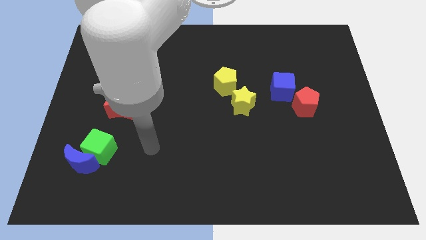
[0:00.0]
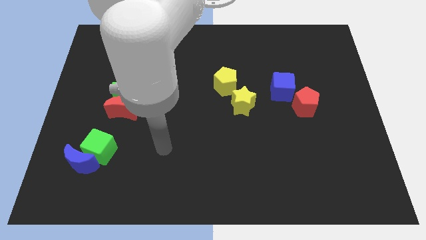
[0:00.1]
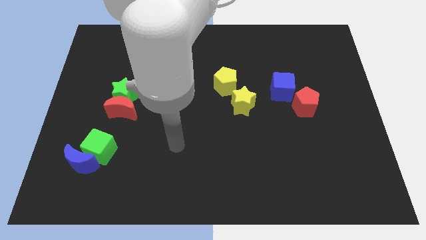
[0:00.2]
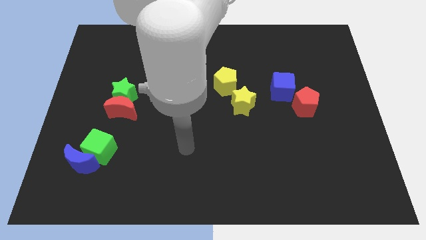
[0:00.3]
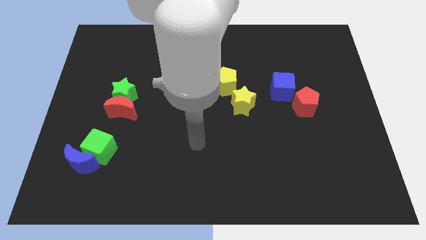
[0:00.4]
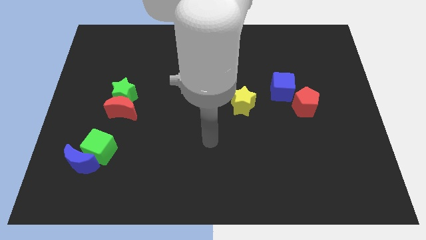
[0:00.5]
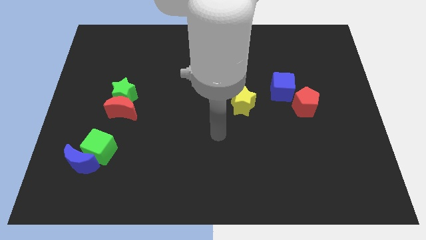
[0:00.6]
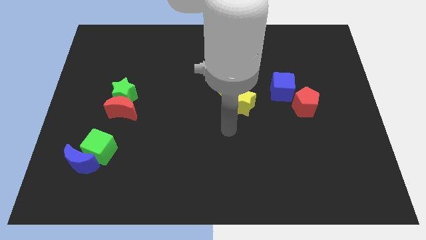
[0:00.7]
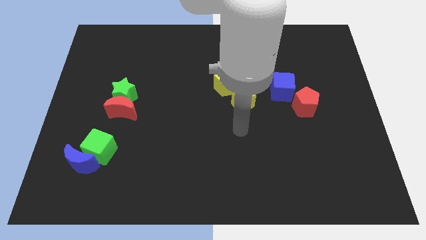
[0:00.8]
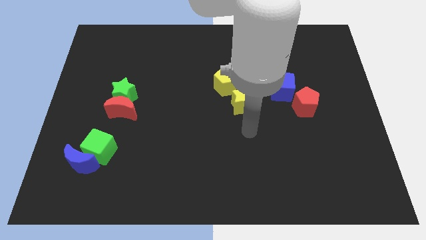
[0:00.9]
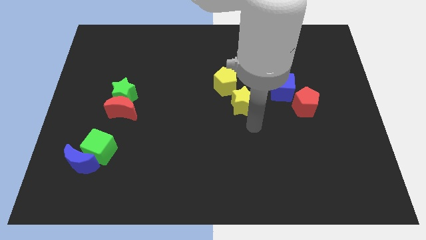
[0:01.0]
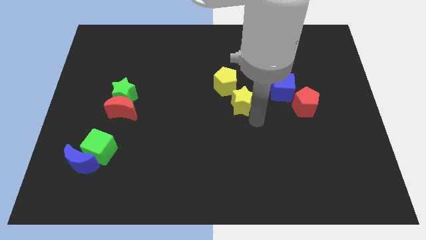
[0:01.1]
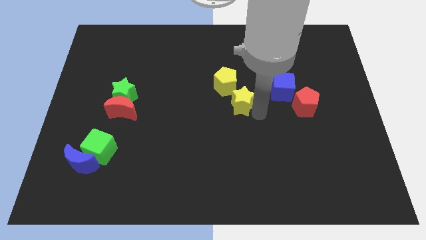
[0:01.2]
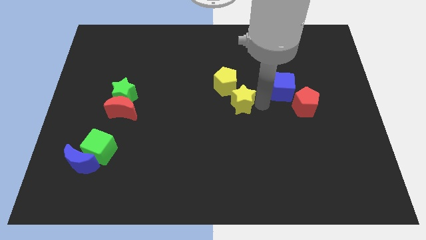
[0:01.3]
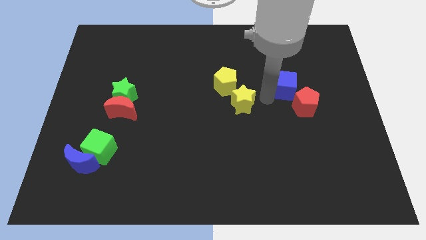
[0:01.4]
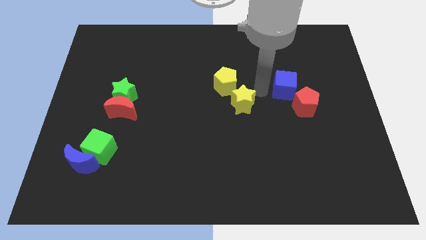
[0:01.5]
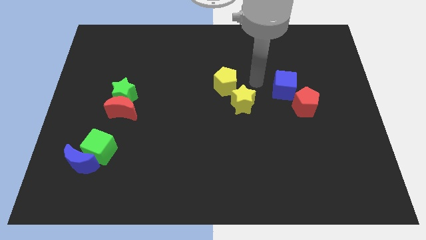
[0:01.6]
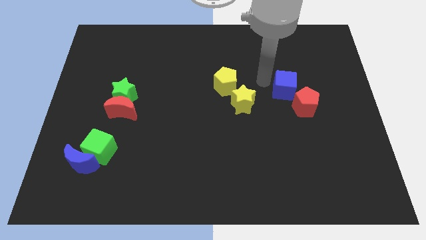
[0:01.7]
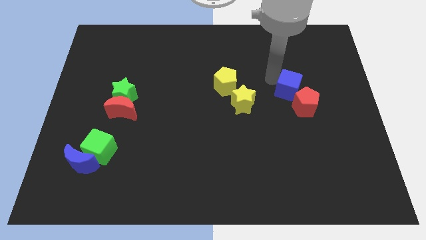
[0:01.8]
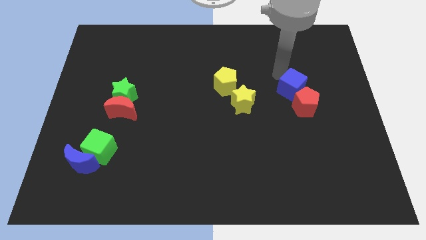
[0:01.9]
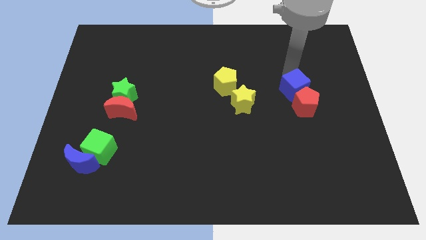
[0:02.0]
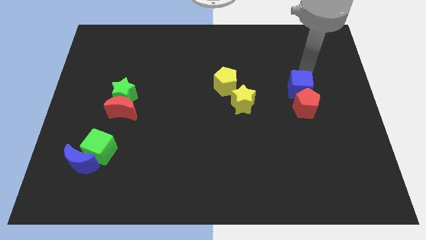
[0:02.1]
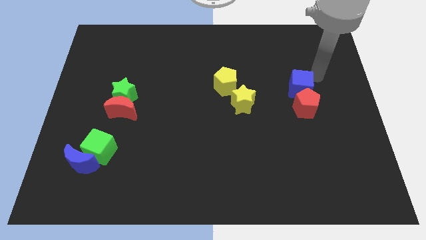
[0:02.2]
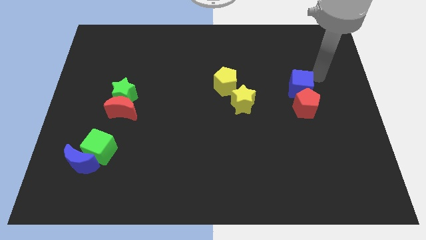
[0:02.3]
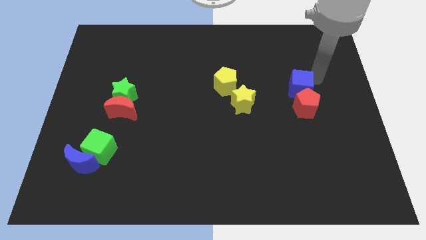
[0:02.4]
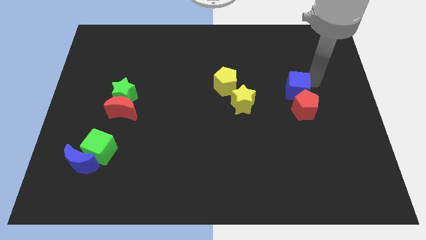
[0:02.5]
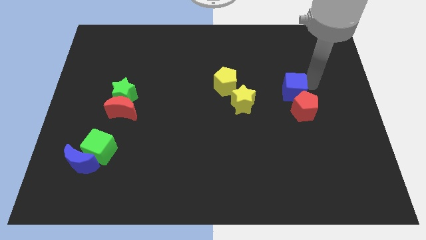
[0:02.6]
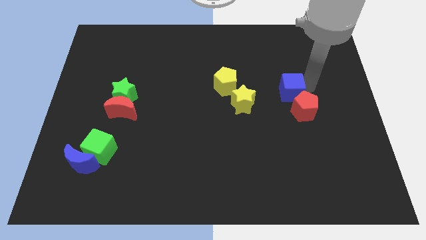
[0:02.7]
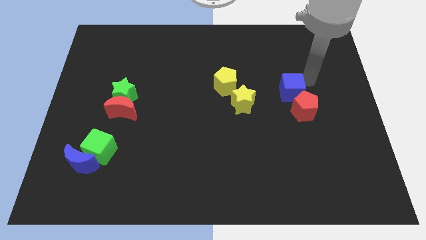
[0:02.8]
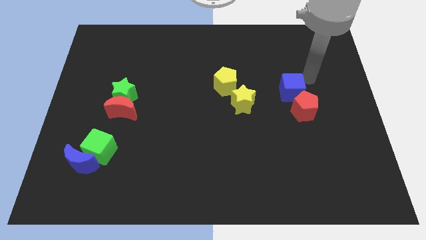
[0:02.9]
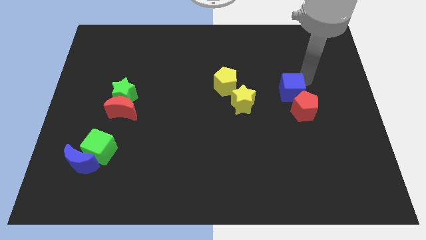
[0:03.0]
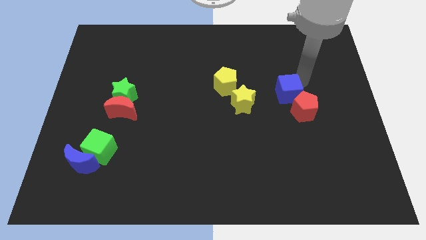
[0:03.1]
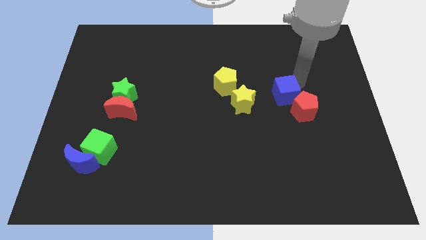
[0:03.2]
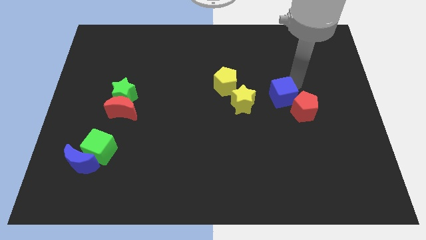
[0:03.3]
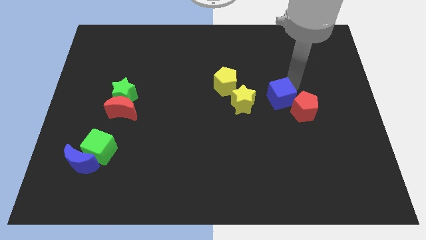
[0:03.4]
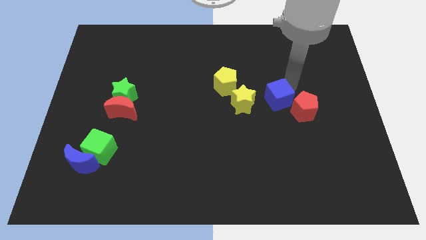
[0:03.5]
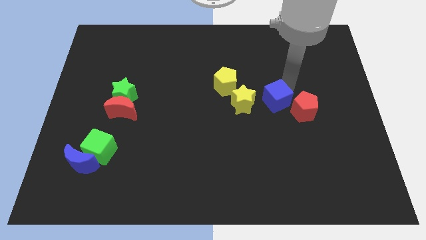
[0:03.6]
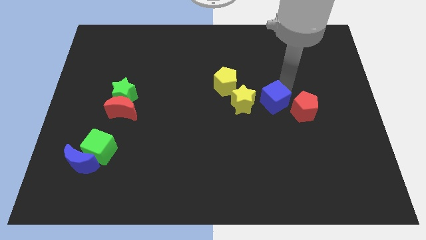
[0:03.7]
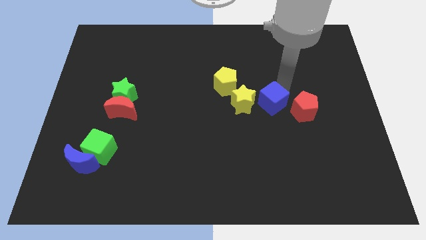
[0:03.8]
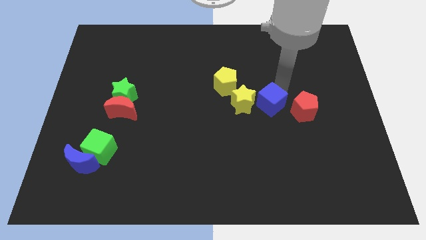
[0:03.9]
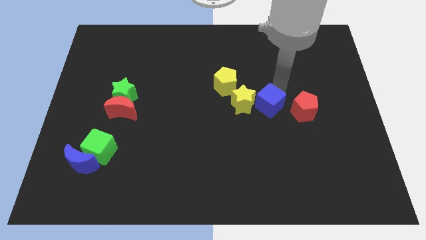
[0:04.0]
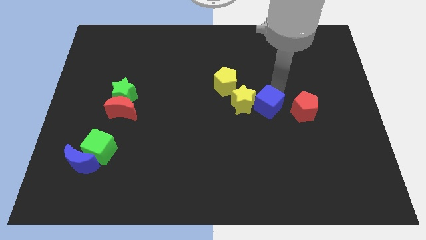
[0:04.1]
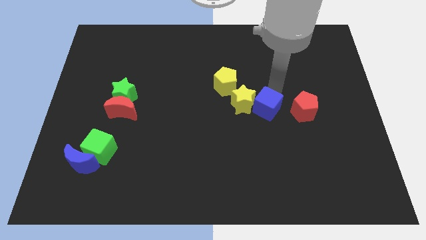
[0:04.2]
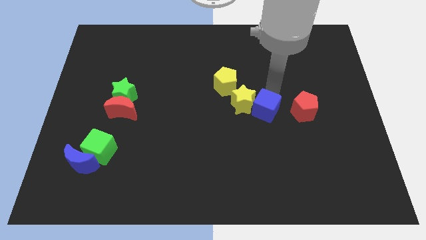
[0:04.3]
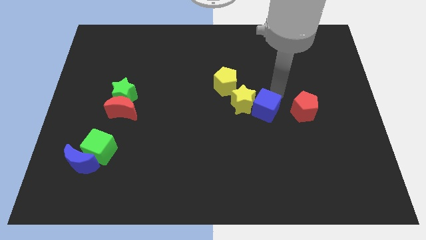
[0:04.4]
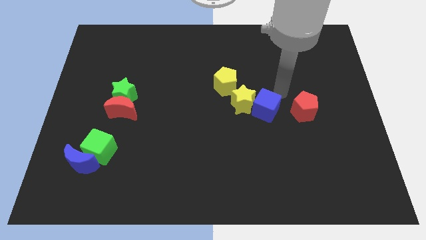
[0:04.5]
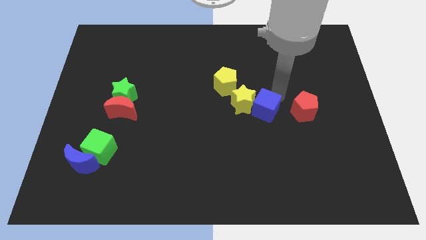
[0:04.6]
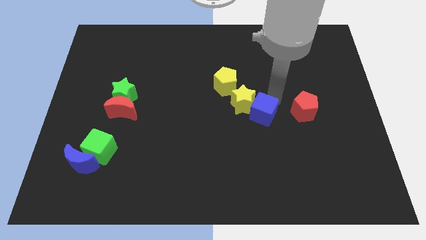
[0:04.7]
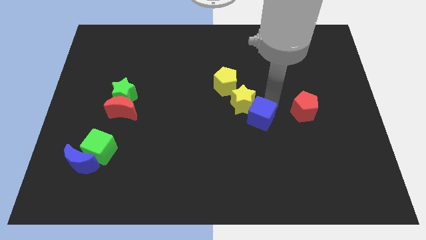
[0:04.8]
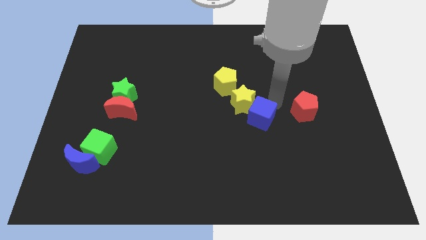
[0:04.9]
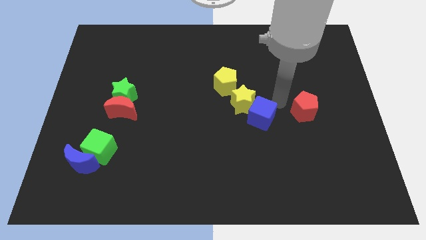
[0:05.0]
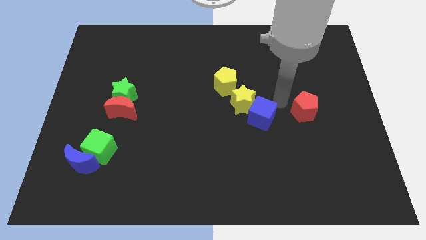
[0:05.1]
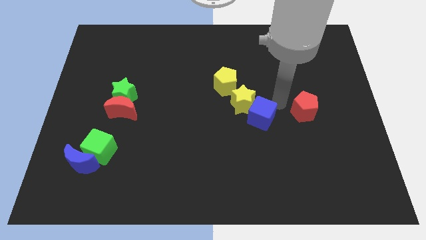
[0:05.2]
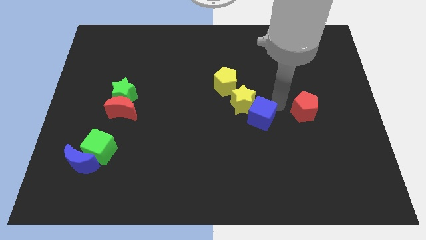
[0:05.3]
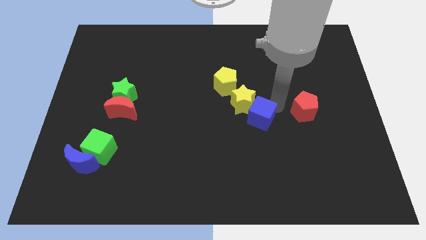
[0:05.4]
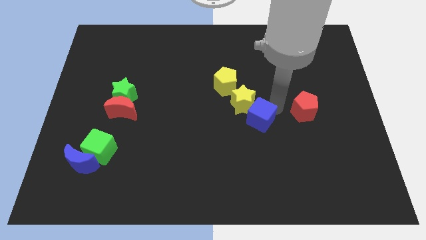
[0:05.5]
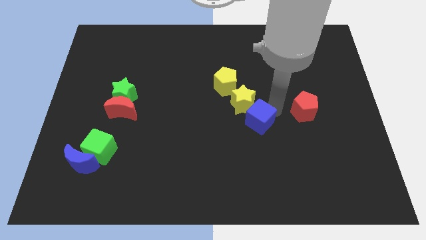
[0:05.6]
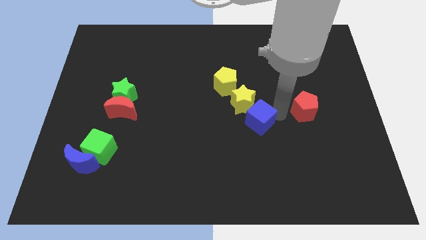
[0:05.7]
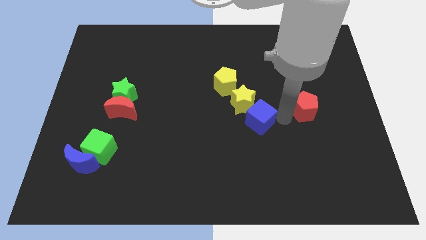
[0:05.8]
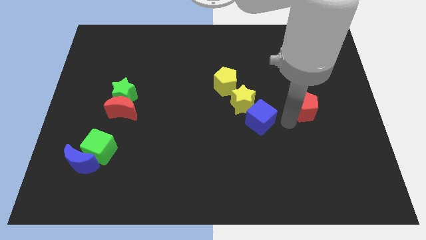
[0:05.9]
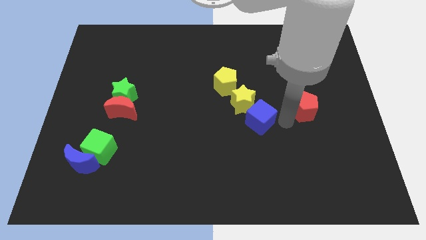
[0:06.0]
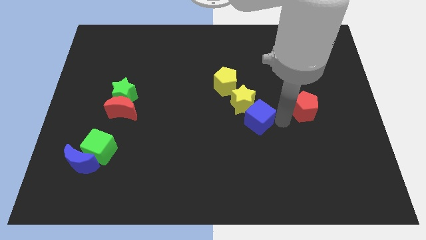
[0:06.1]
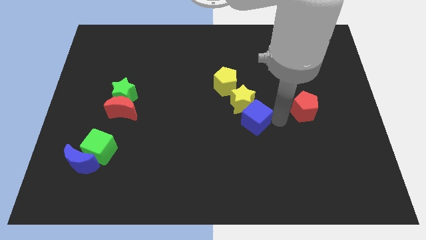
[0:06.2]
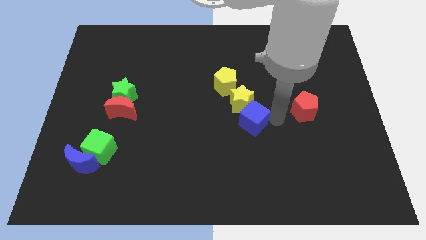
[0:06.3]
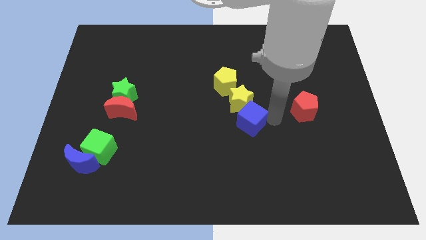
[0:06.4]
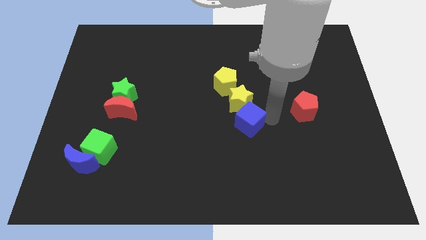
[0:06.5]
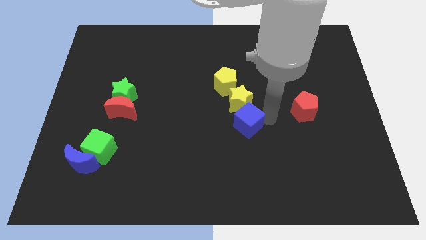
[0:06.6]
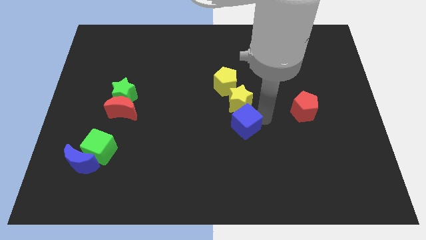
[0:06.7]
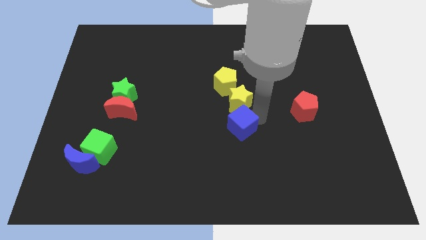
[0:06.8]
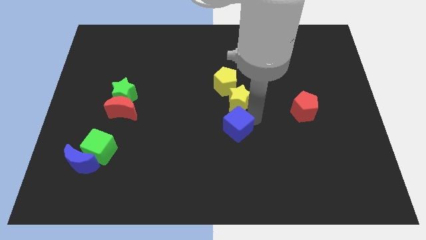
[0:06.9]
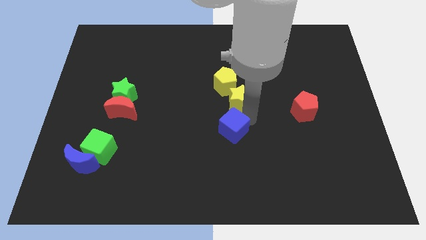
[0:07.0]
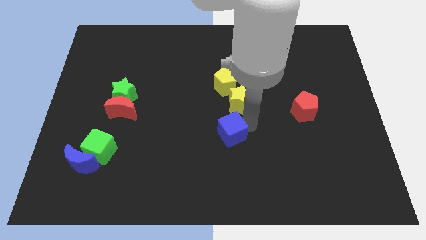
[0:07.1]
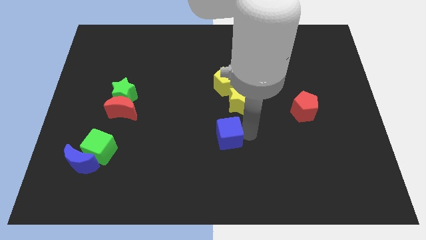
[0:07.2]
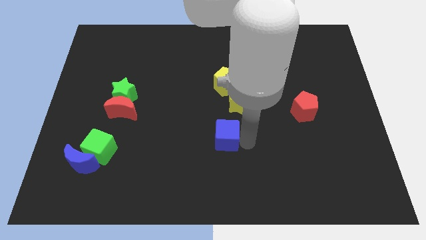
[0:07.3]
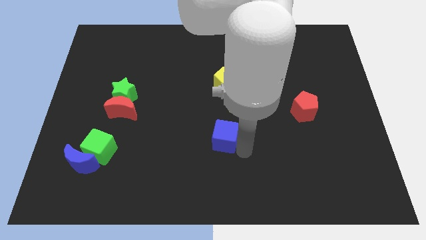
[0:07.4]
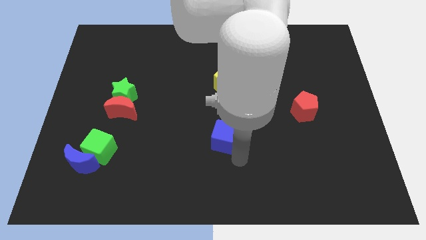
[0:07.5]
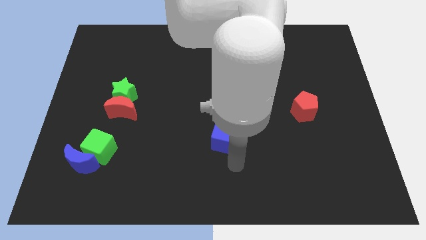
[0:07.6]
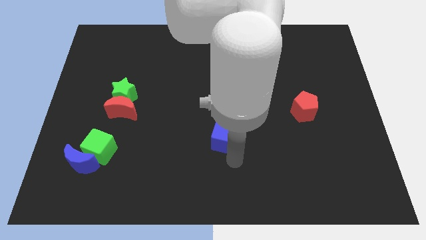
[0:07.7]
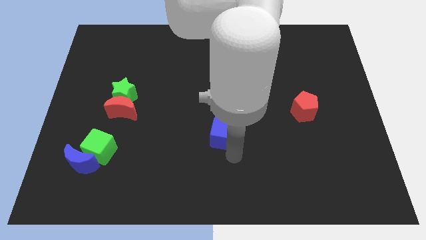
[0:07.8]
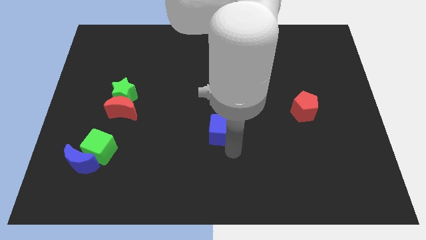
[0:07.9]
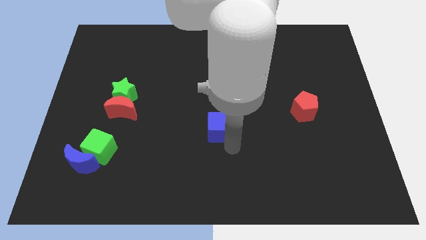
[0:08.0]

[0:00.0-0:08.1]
slightly push the blue cube to the left

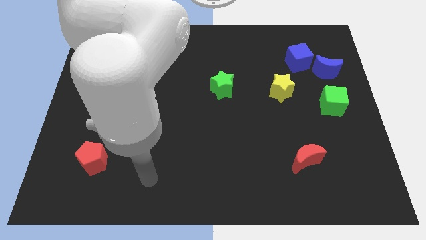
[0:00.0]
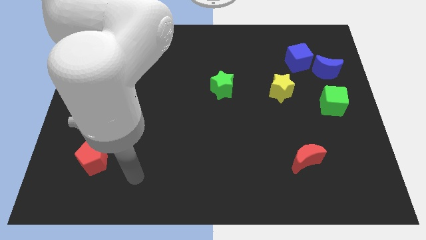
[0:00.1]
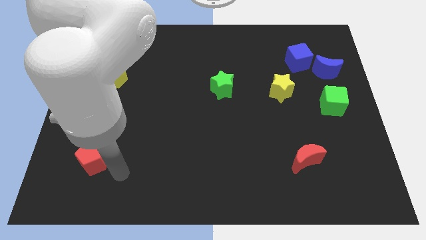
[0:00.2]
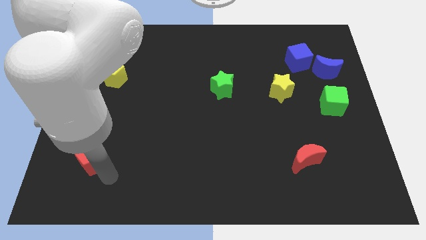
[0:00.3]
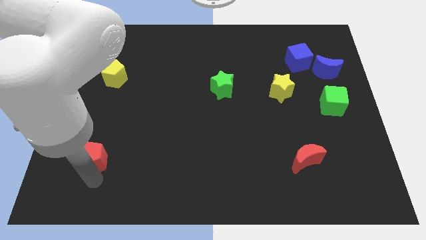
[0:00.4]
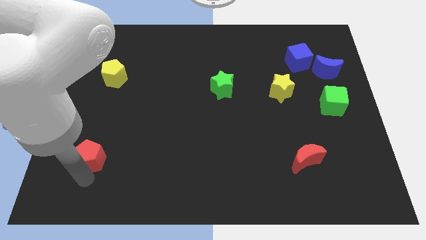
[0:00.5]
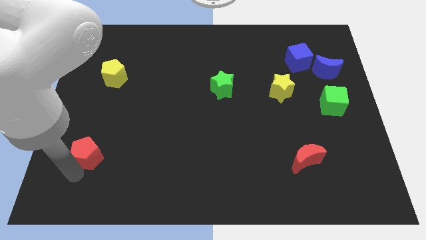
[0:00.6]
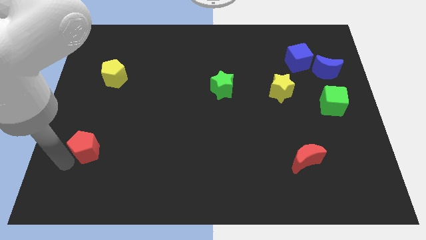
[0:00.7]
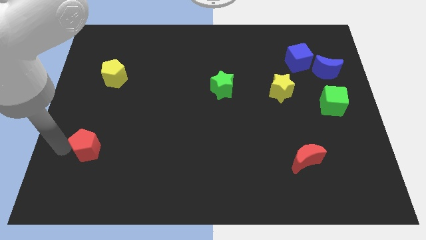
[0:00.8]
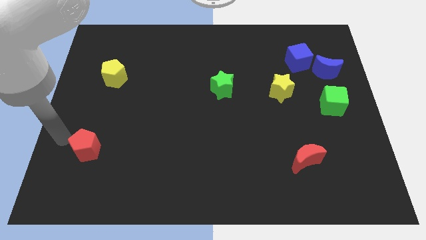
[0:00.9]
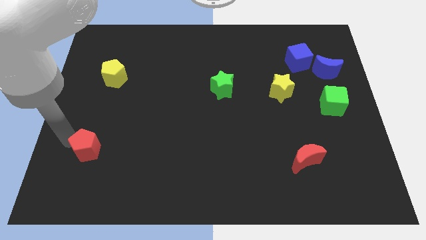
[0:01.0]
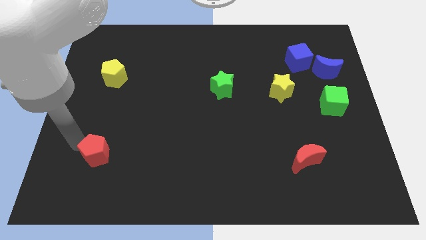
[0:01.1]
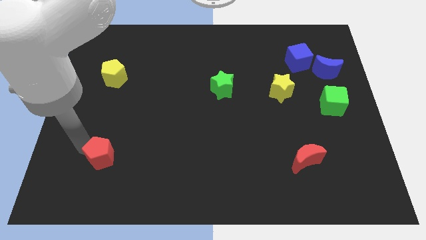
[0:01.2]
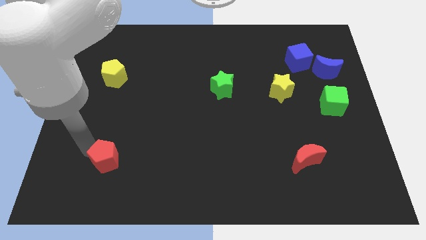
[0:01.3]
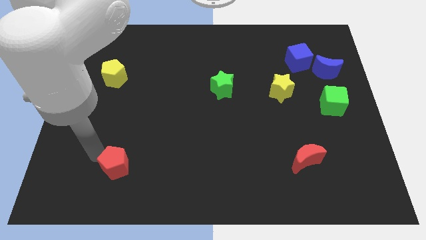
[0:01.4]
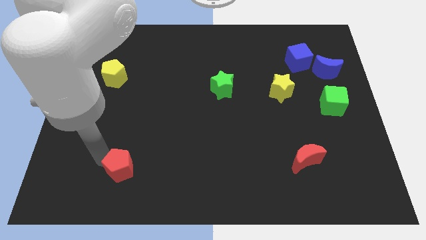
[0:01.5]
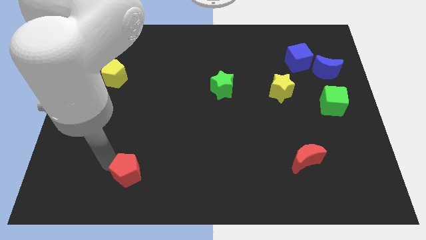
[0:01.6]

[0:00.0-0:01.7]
move the red pentagon a bit right
